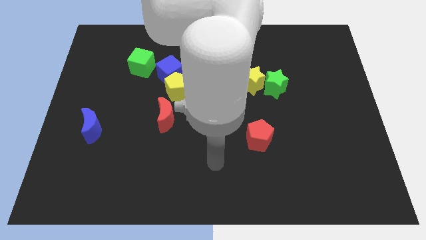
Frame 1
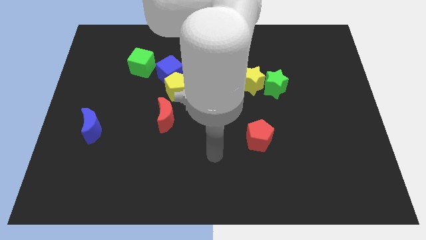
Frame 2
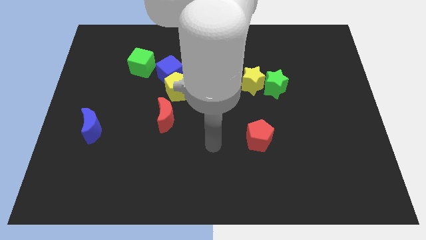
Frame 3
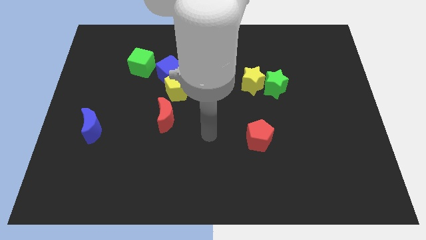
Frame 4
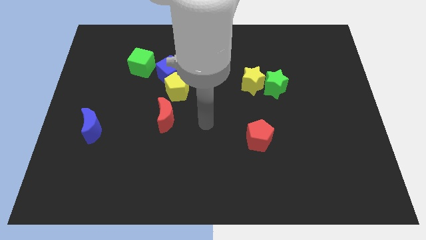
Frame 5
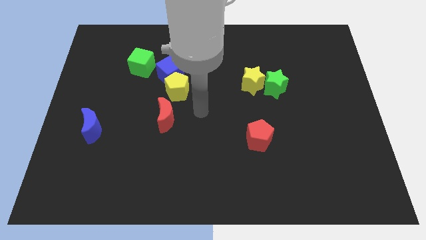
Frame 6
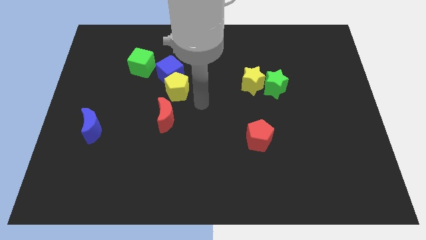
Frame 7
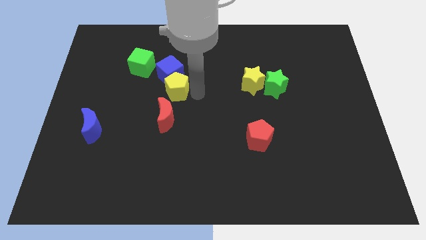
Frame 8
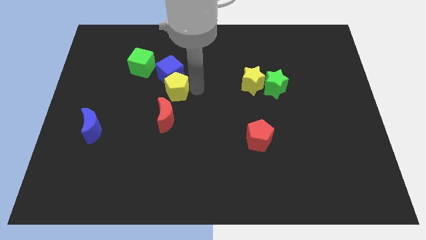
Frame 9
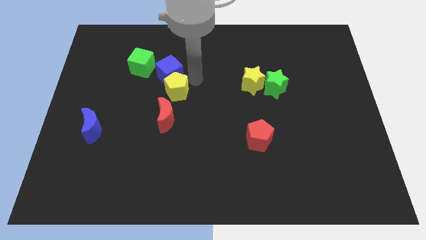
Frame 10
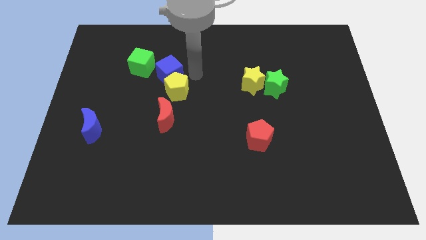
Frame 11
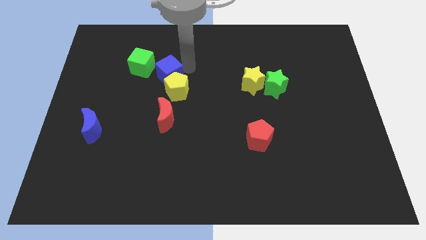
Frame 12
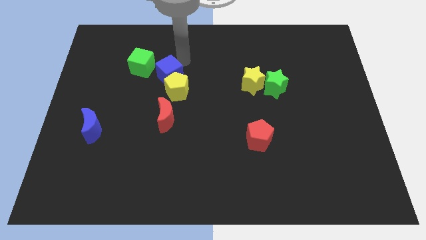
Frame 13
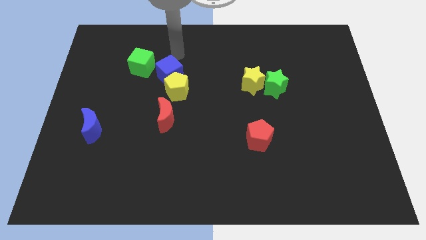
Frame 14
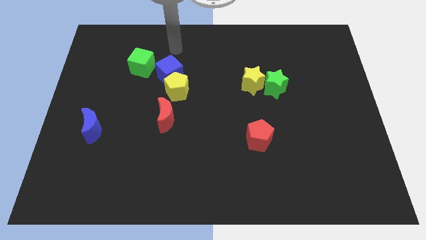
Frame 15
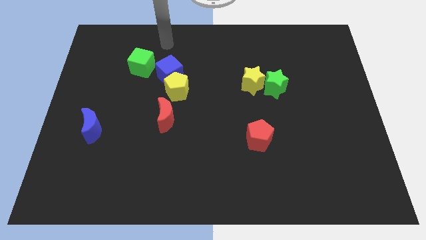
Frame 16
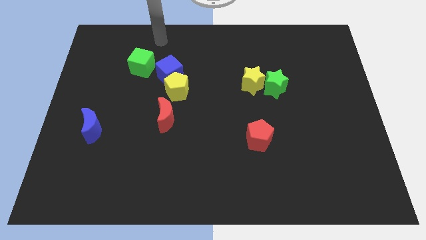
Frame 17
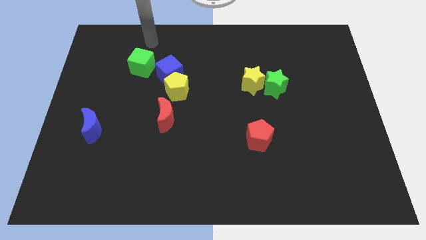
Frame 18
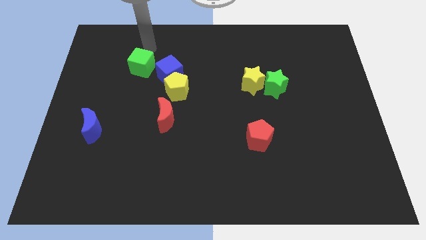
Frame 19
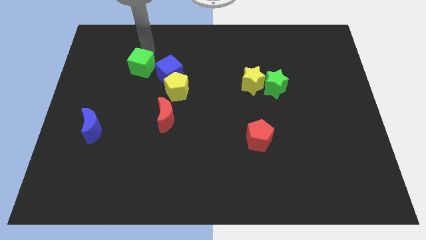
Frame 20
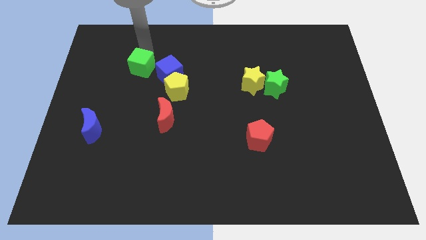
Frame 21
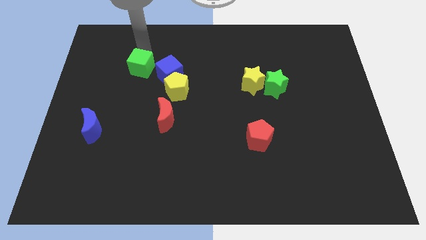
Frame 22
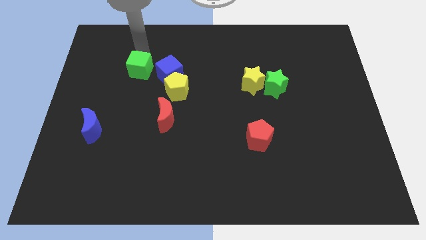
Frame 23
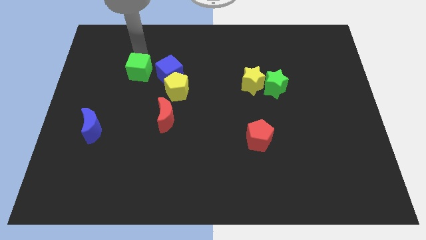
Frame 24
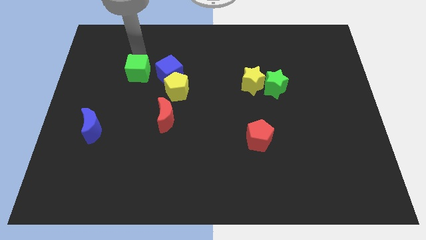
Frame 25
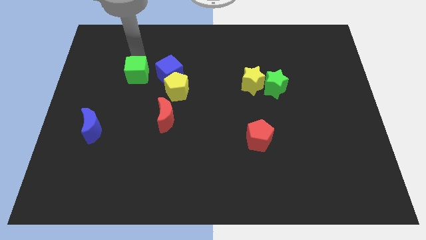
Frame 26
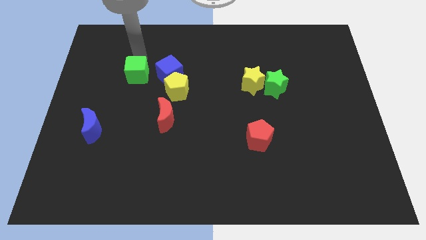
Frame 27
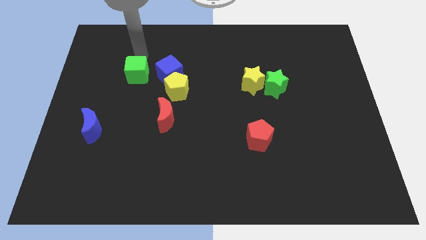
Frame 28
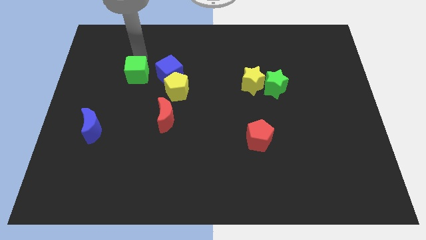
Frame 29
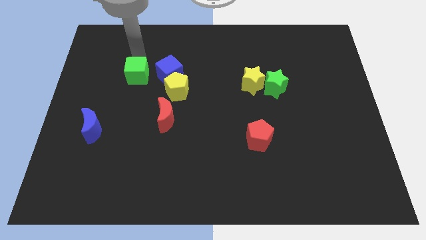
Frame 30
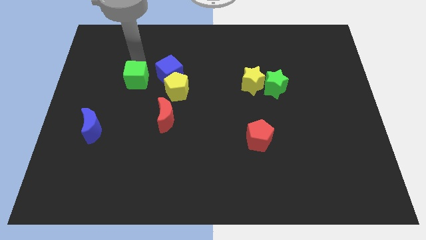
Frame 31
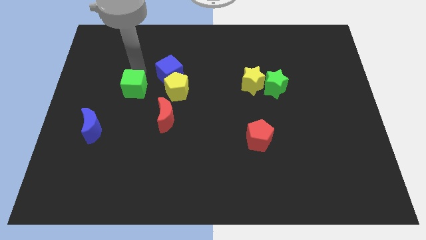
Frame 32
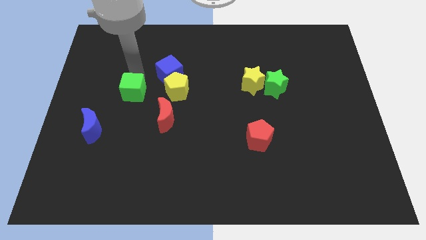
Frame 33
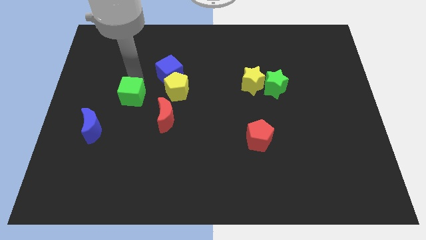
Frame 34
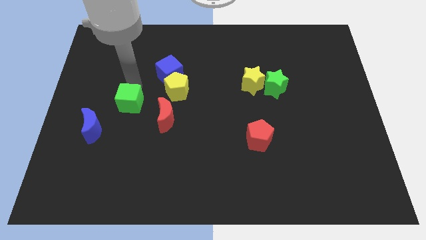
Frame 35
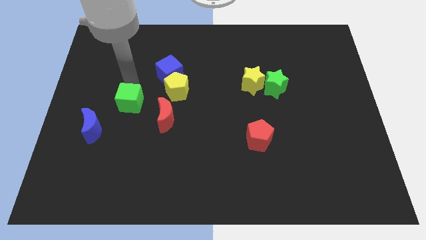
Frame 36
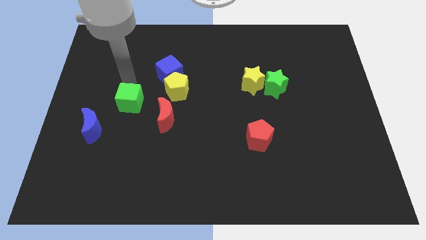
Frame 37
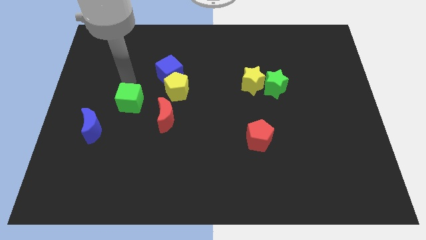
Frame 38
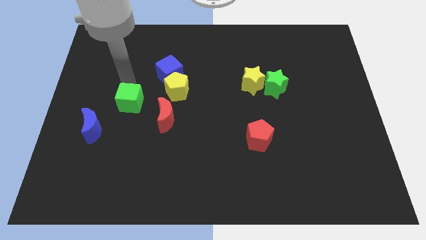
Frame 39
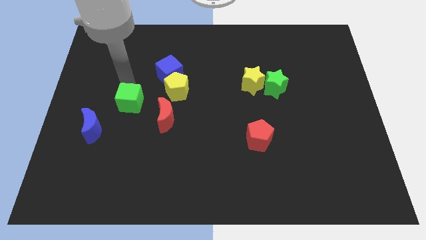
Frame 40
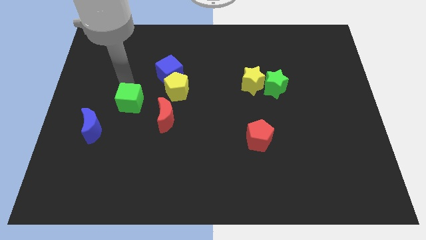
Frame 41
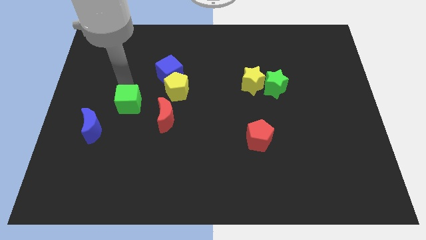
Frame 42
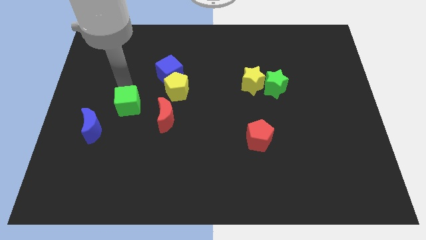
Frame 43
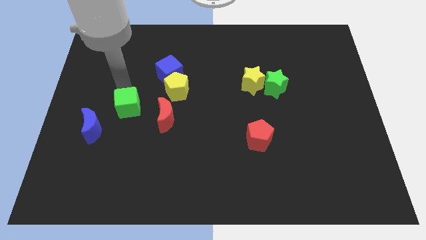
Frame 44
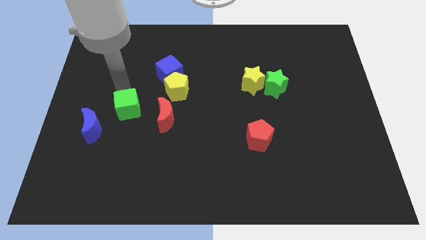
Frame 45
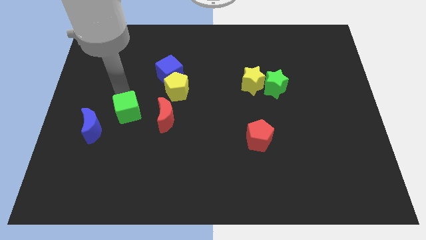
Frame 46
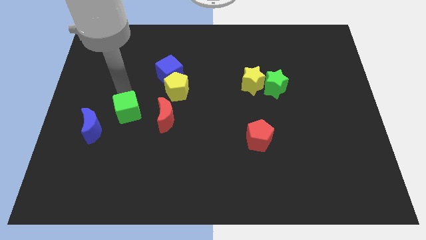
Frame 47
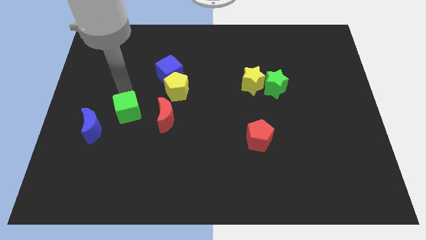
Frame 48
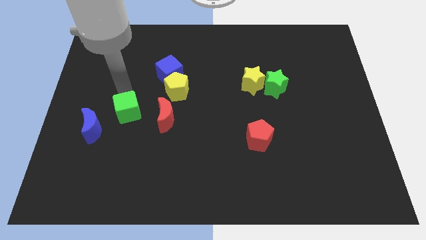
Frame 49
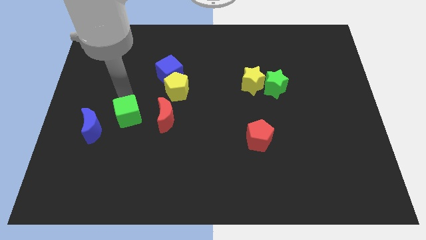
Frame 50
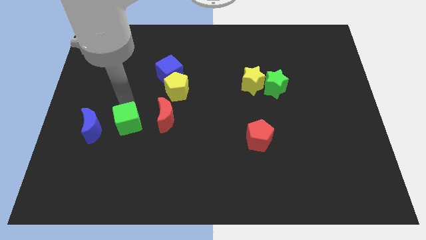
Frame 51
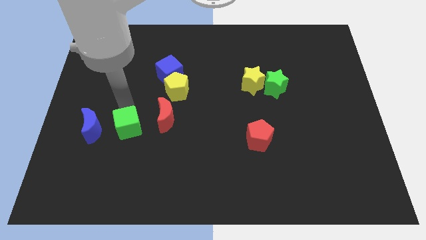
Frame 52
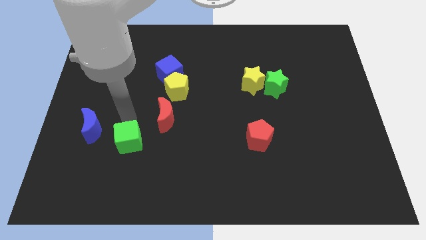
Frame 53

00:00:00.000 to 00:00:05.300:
push the green cube down

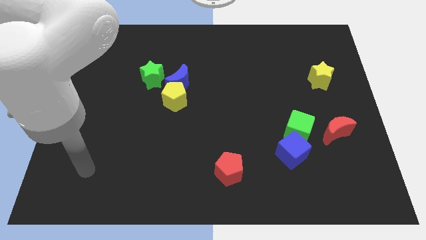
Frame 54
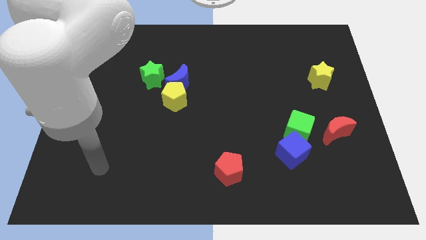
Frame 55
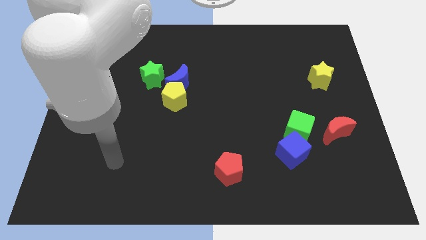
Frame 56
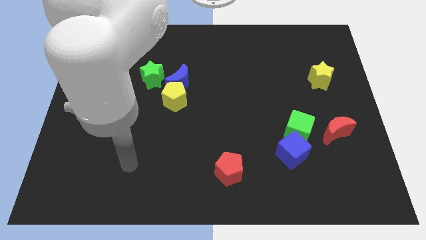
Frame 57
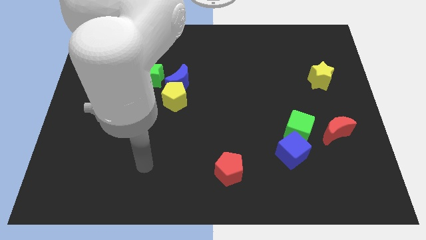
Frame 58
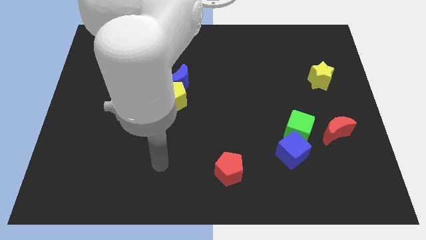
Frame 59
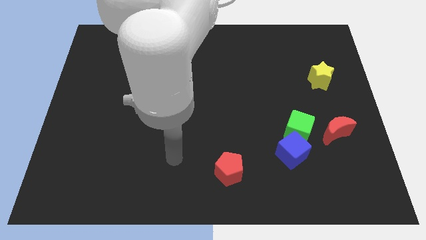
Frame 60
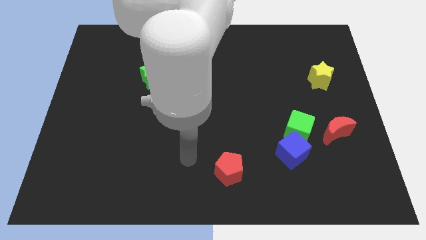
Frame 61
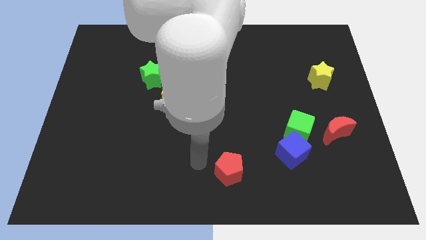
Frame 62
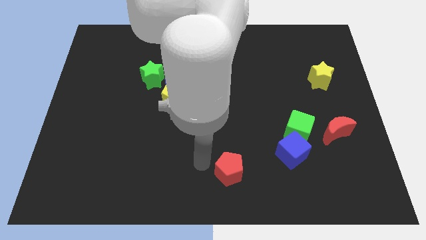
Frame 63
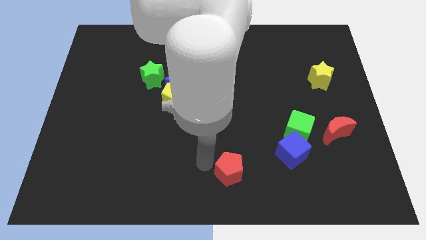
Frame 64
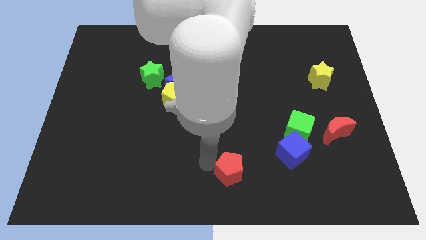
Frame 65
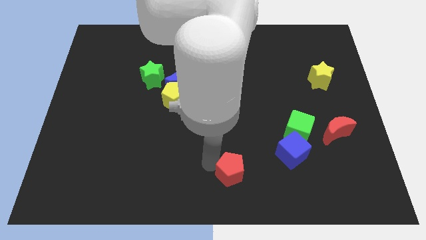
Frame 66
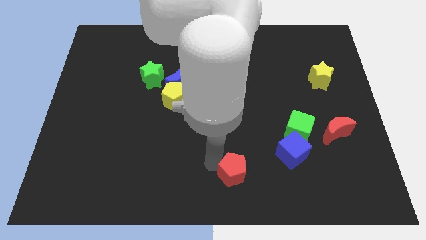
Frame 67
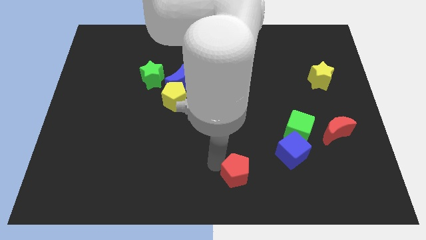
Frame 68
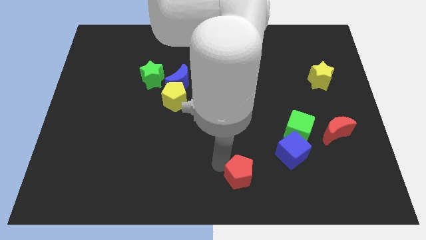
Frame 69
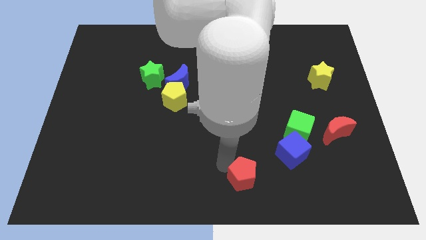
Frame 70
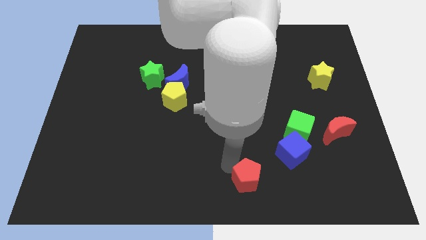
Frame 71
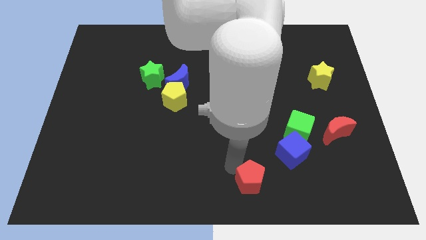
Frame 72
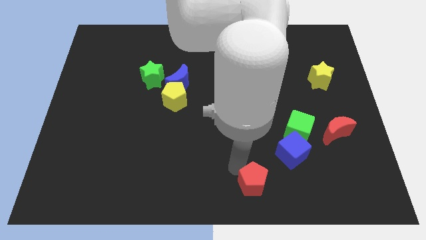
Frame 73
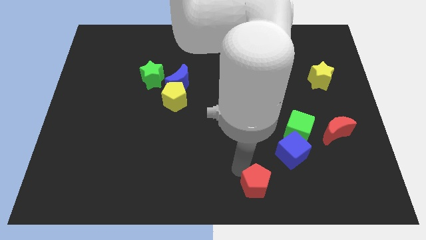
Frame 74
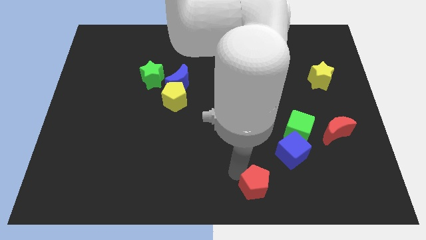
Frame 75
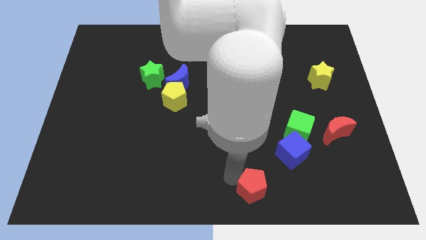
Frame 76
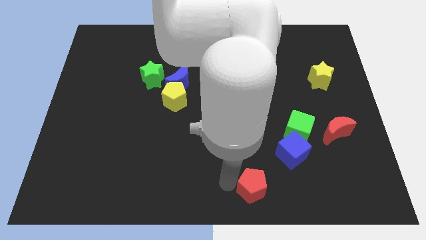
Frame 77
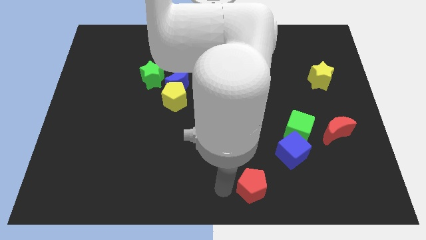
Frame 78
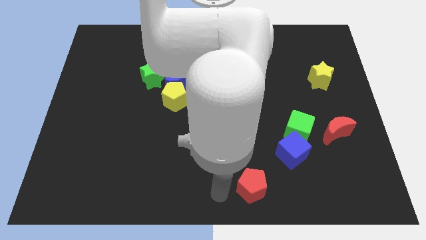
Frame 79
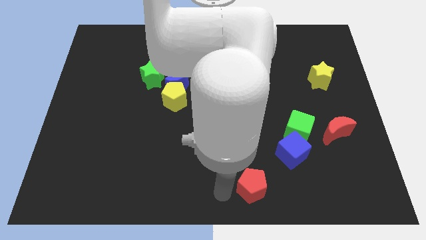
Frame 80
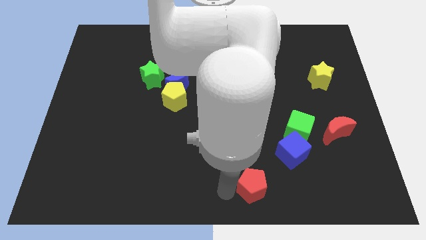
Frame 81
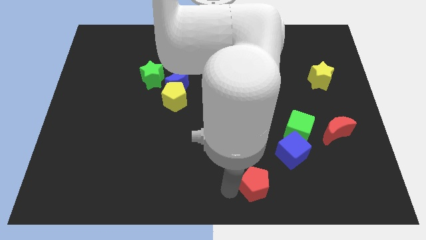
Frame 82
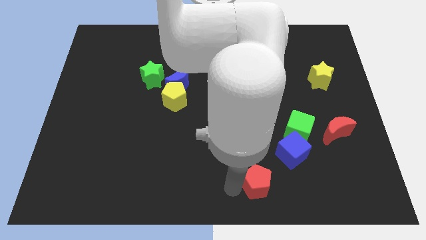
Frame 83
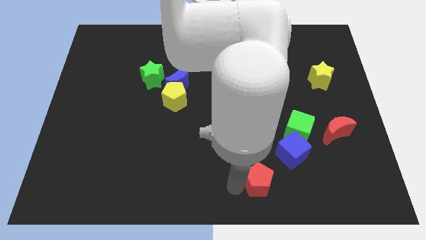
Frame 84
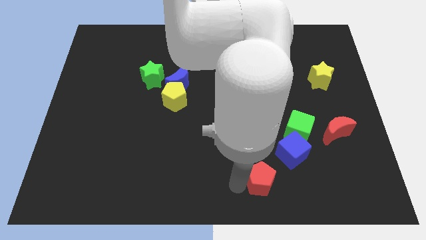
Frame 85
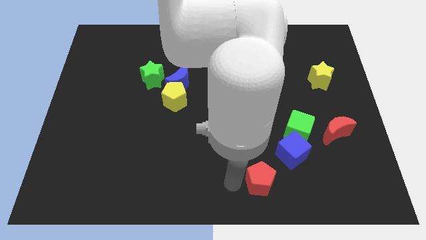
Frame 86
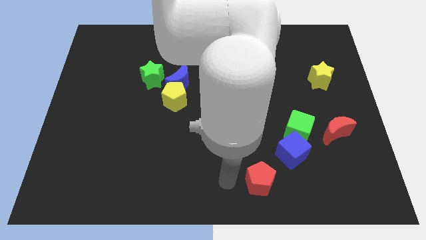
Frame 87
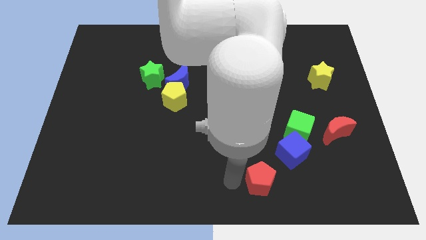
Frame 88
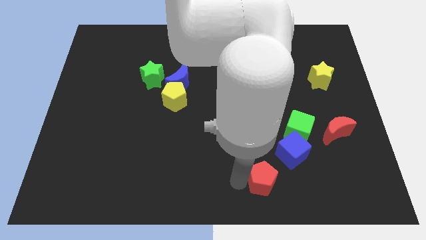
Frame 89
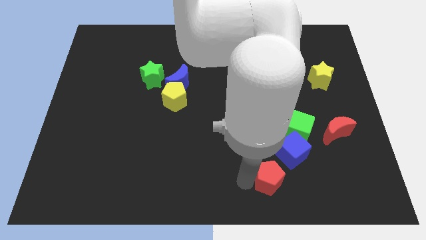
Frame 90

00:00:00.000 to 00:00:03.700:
move the red pentagon to the right a little bit
